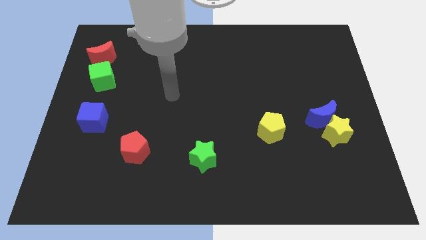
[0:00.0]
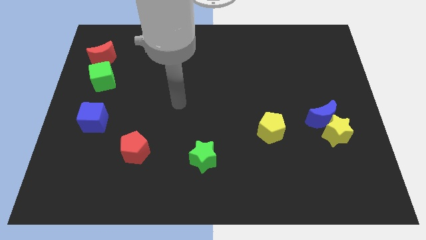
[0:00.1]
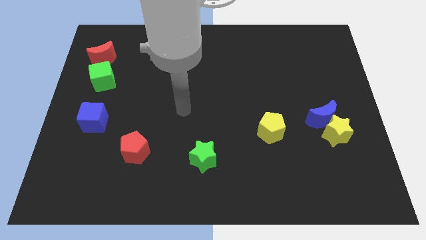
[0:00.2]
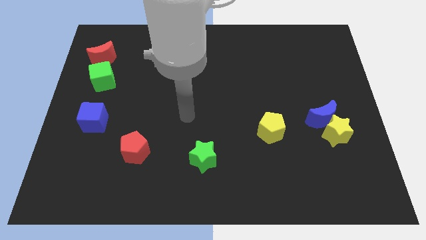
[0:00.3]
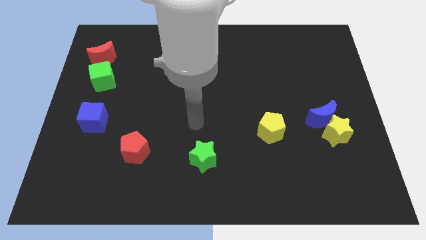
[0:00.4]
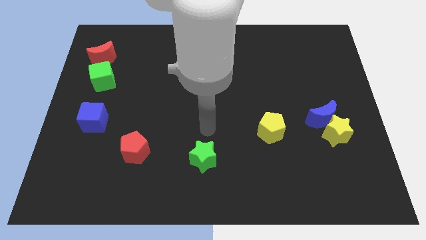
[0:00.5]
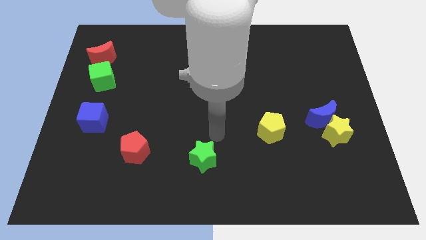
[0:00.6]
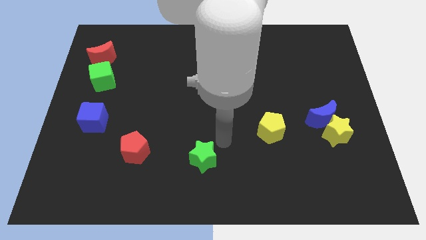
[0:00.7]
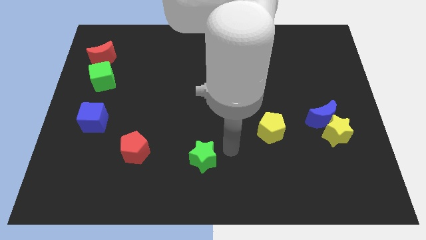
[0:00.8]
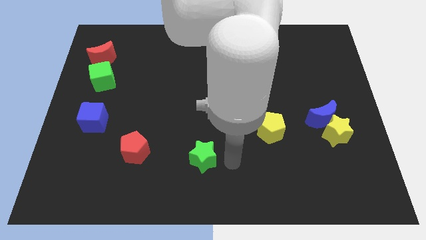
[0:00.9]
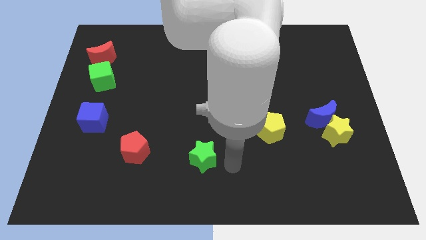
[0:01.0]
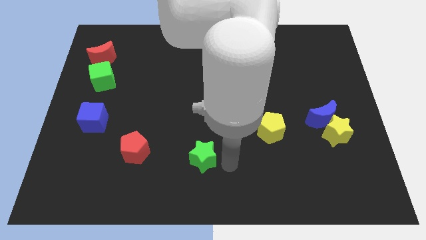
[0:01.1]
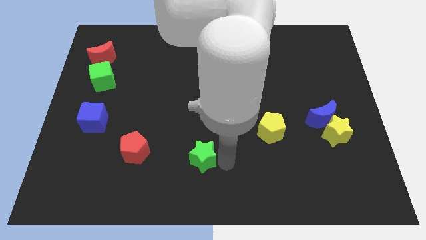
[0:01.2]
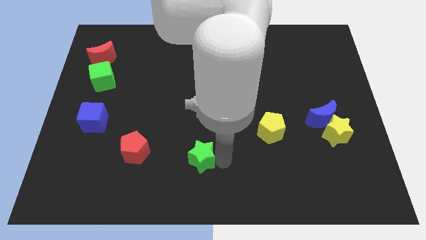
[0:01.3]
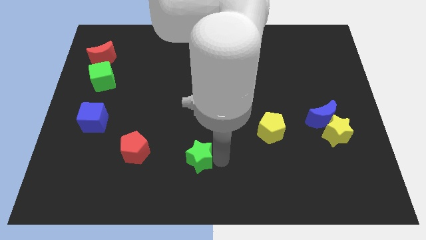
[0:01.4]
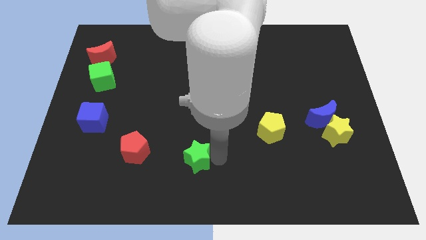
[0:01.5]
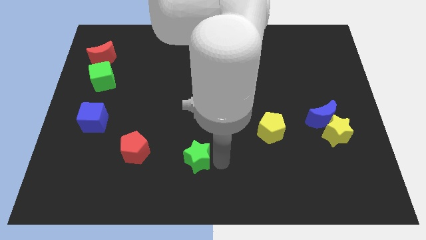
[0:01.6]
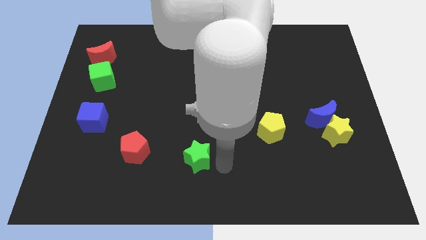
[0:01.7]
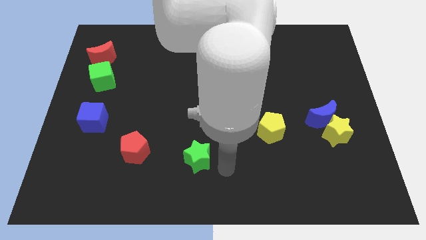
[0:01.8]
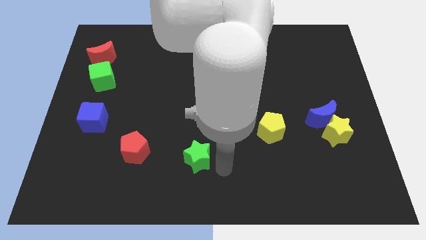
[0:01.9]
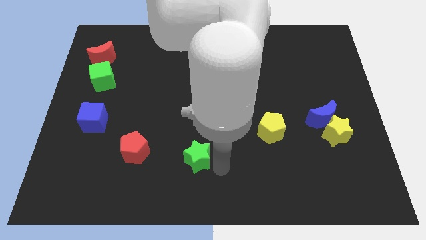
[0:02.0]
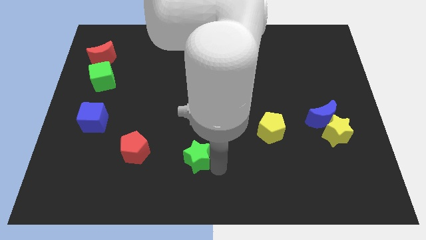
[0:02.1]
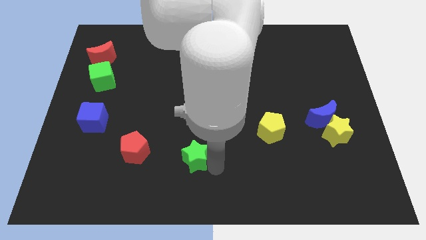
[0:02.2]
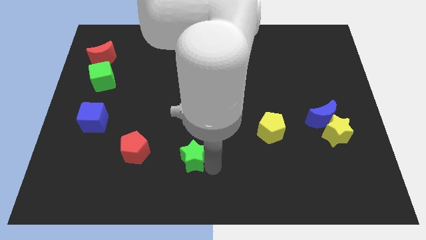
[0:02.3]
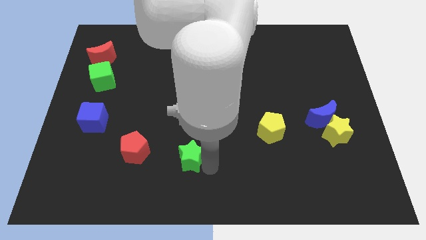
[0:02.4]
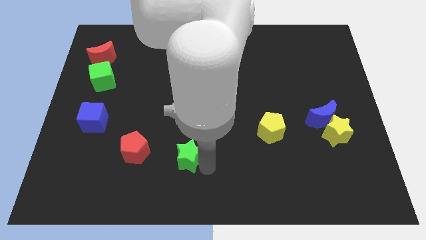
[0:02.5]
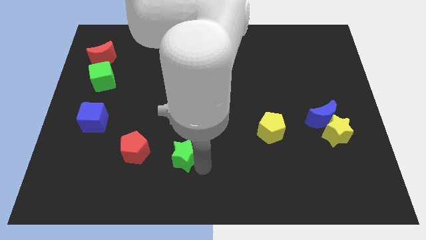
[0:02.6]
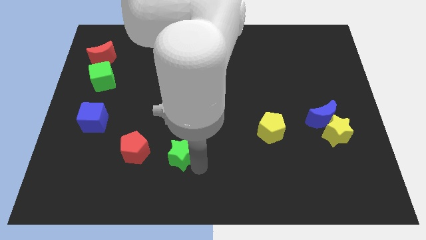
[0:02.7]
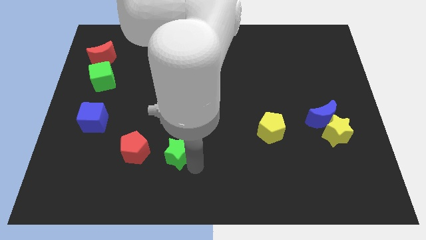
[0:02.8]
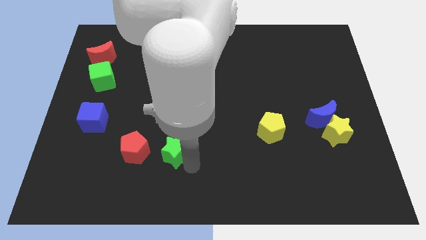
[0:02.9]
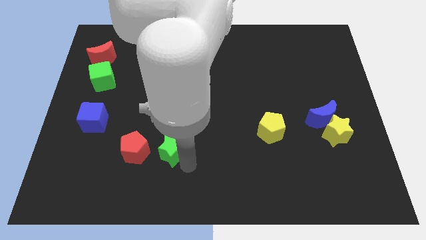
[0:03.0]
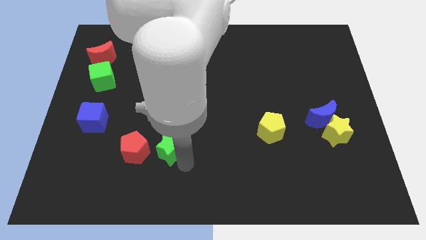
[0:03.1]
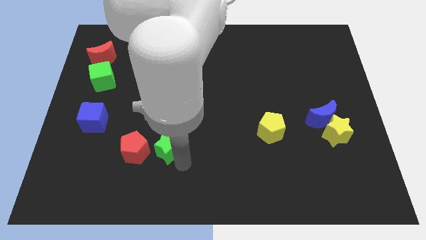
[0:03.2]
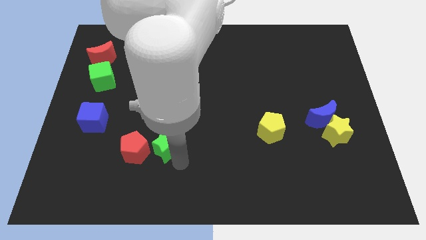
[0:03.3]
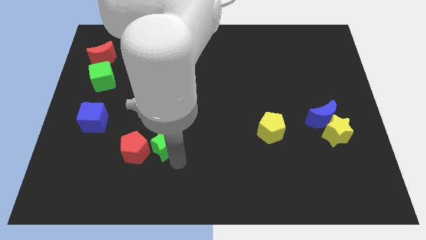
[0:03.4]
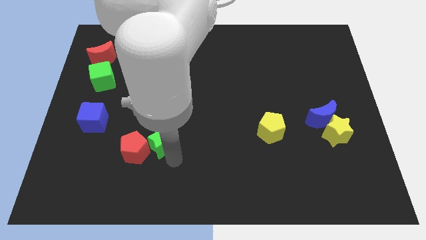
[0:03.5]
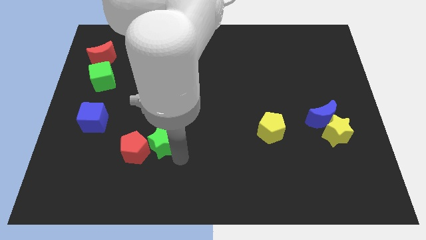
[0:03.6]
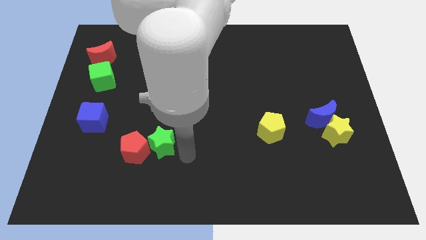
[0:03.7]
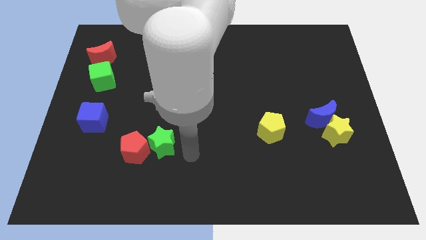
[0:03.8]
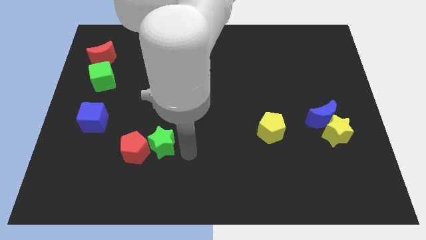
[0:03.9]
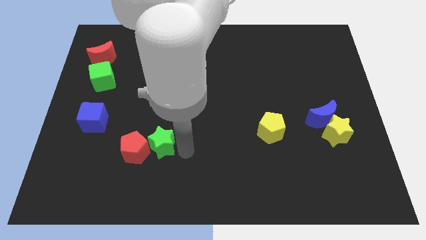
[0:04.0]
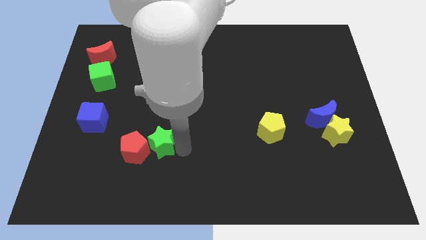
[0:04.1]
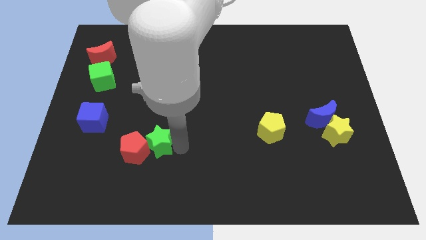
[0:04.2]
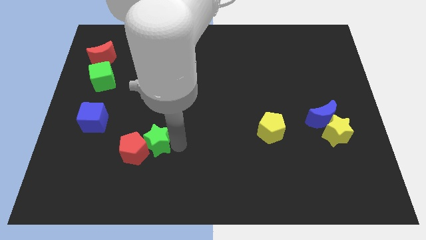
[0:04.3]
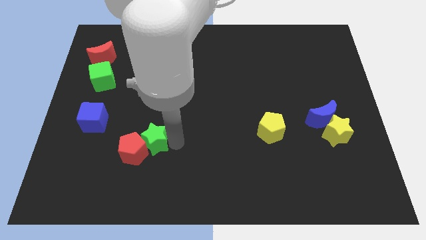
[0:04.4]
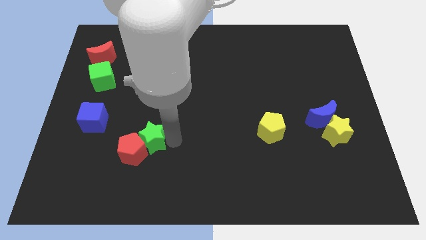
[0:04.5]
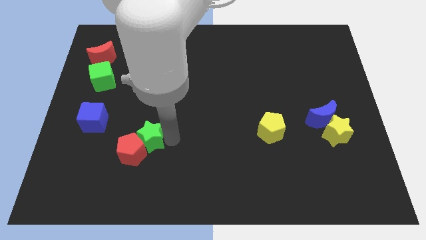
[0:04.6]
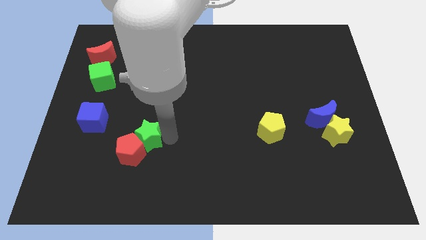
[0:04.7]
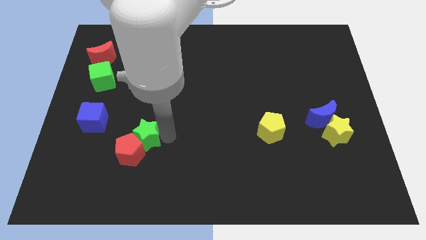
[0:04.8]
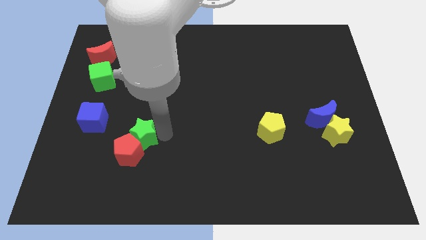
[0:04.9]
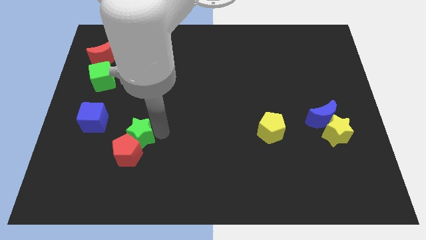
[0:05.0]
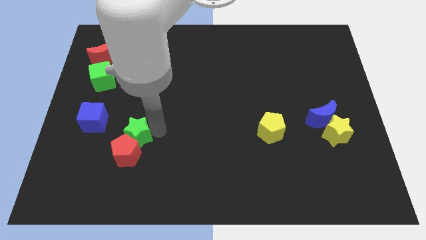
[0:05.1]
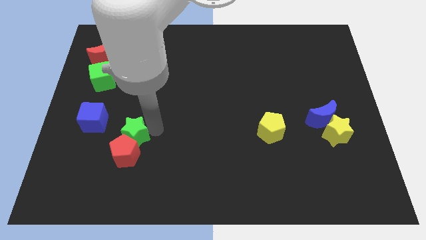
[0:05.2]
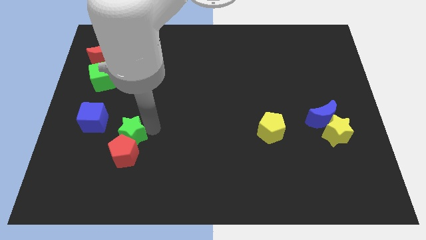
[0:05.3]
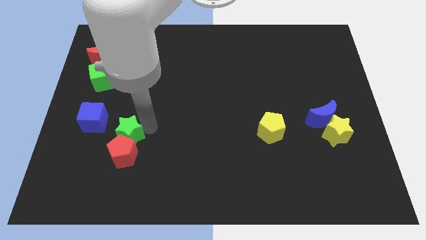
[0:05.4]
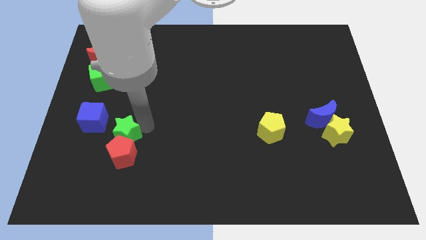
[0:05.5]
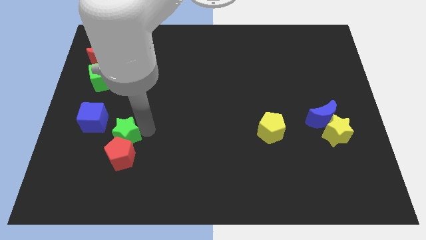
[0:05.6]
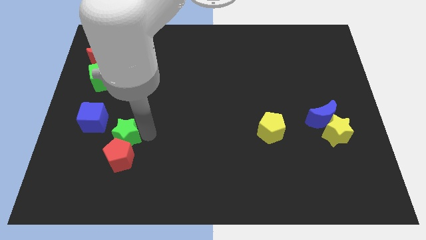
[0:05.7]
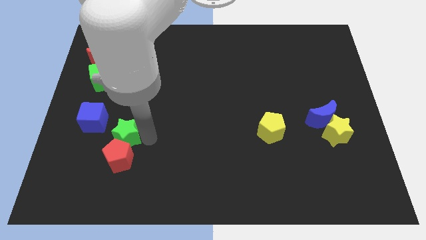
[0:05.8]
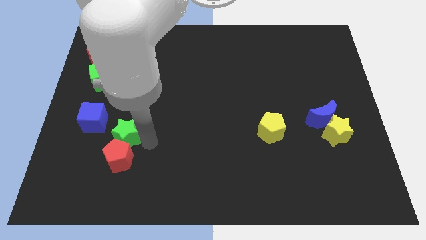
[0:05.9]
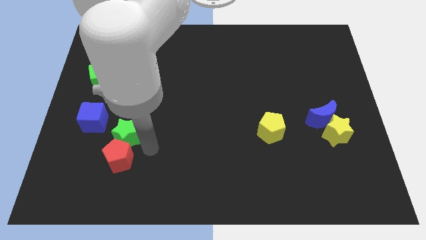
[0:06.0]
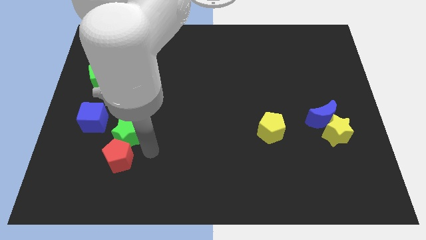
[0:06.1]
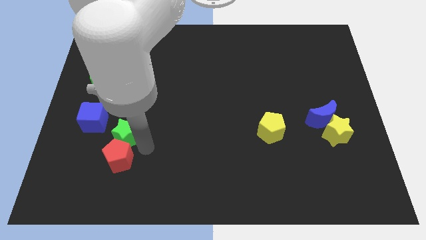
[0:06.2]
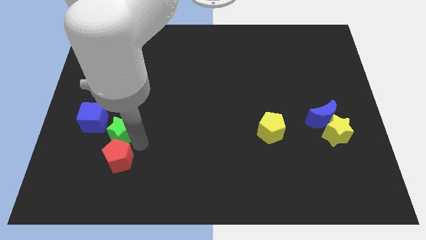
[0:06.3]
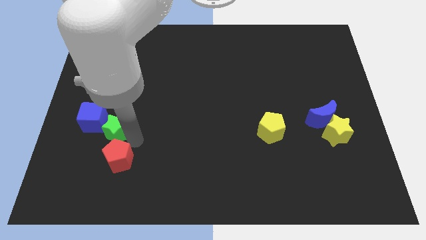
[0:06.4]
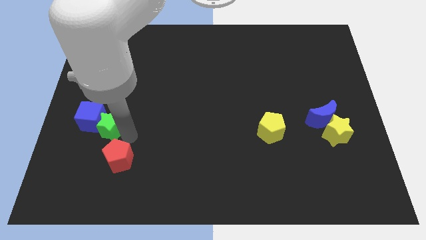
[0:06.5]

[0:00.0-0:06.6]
put the green star towards the blue cube

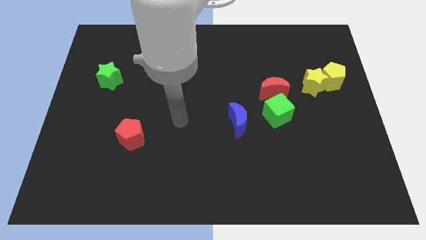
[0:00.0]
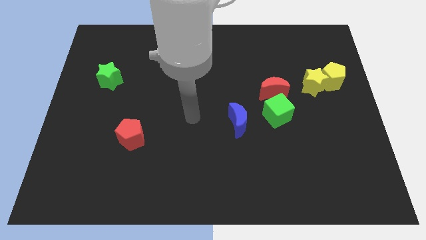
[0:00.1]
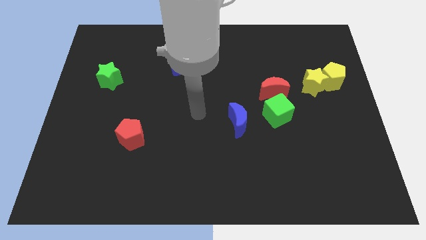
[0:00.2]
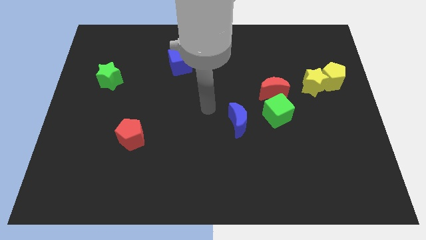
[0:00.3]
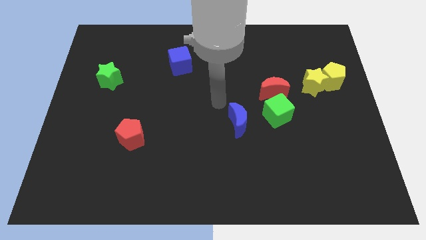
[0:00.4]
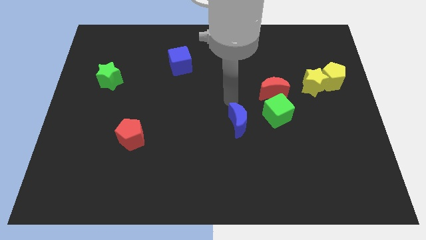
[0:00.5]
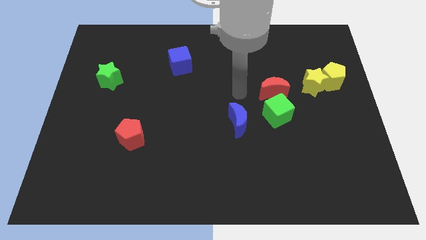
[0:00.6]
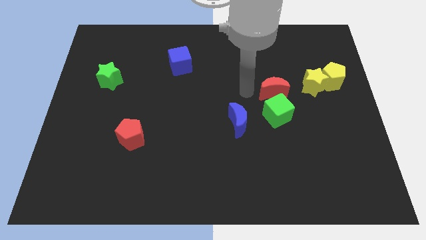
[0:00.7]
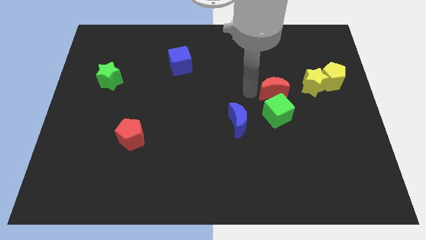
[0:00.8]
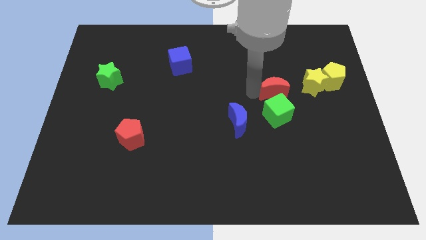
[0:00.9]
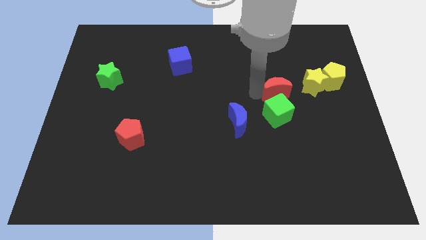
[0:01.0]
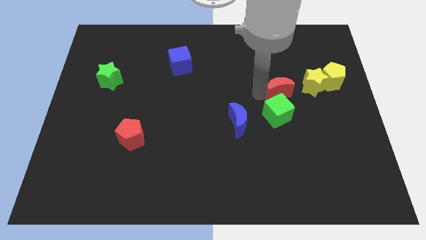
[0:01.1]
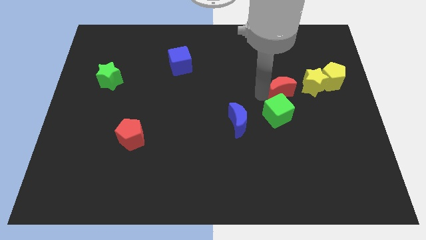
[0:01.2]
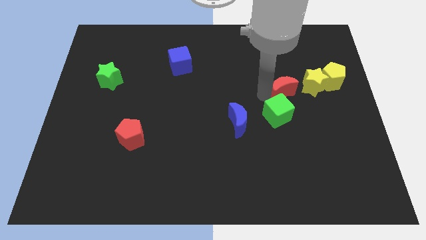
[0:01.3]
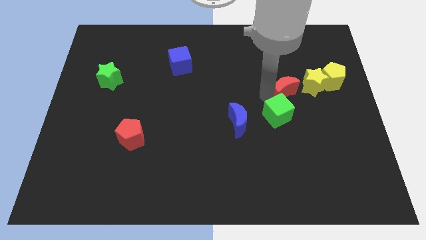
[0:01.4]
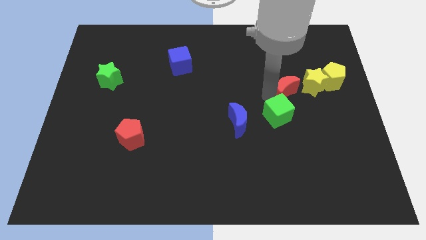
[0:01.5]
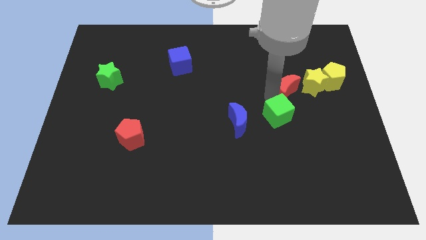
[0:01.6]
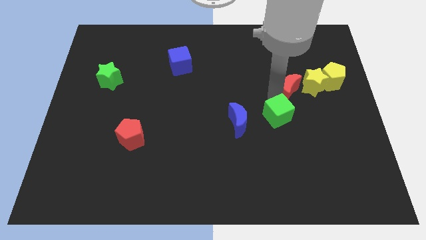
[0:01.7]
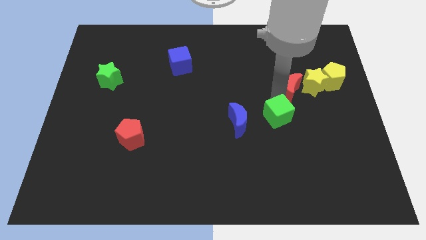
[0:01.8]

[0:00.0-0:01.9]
put the red moon towards the yellow star
